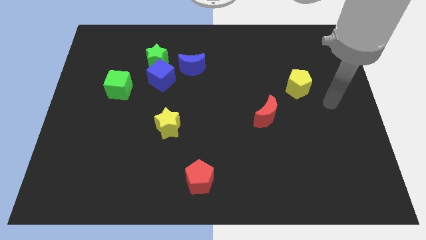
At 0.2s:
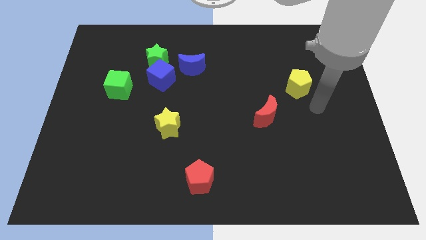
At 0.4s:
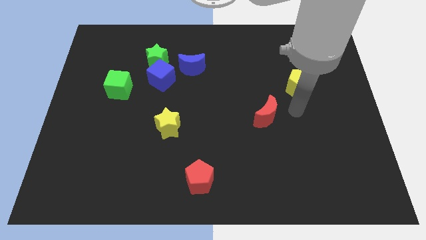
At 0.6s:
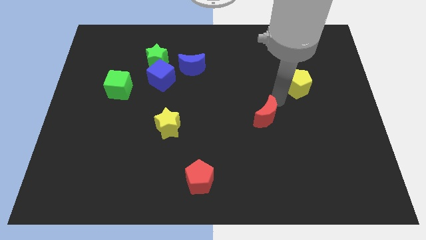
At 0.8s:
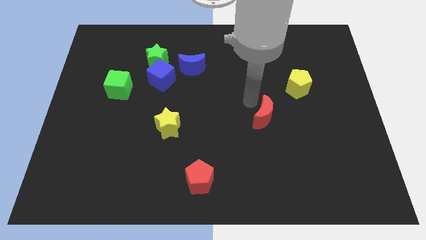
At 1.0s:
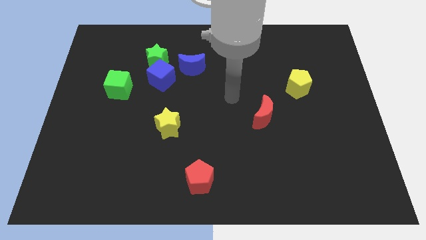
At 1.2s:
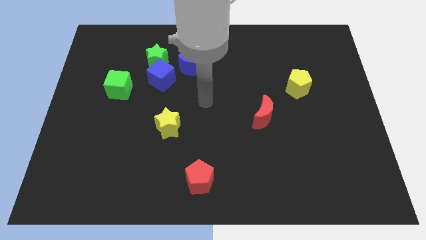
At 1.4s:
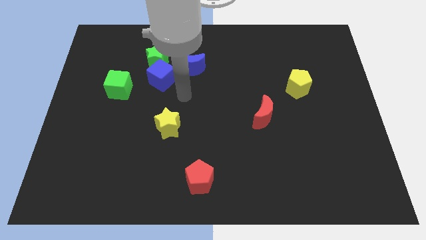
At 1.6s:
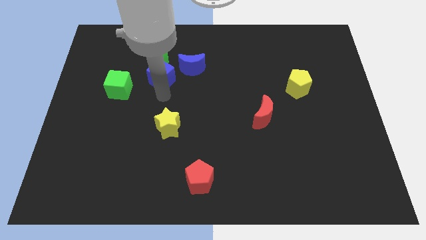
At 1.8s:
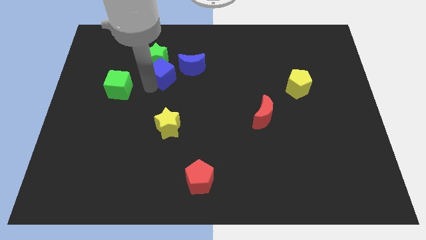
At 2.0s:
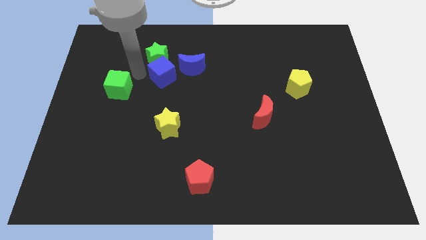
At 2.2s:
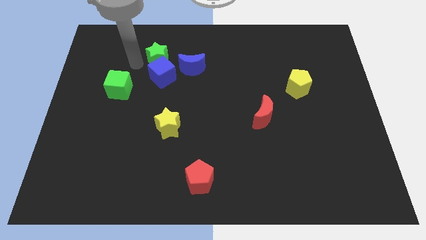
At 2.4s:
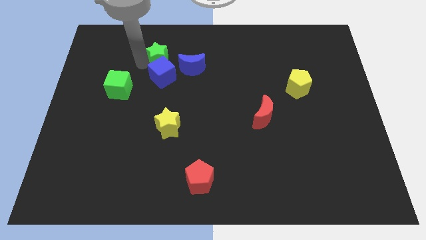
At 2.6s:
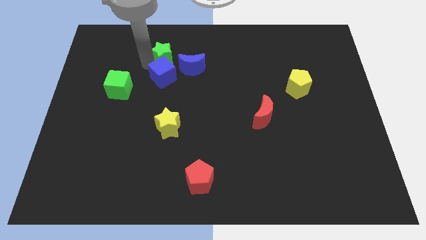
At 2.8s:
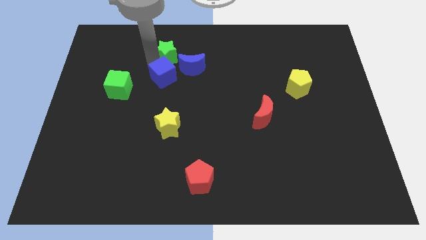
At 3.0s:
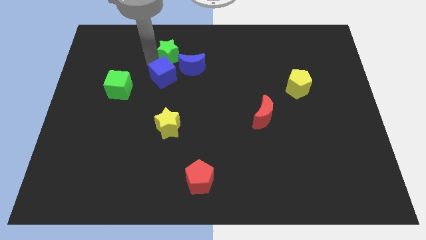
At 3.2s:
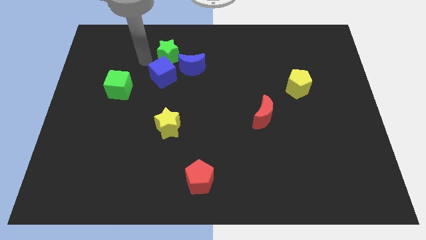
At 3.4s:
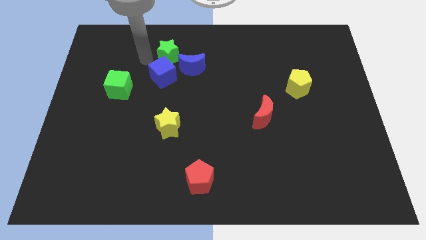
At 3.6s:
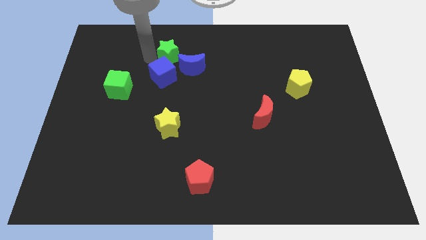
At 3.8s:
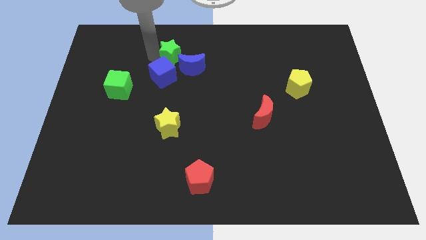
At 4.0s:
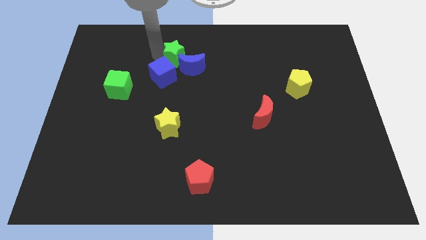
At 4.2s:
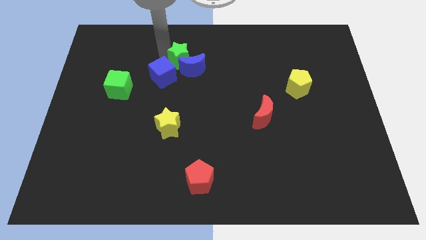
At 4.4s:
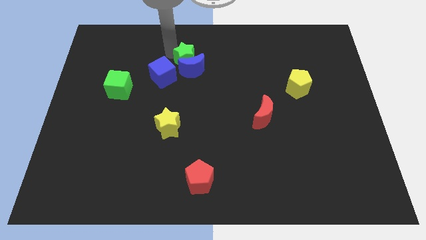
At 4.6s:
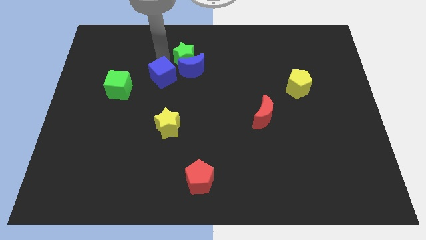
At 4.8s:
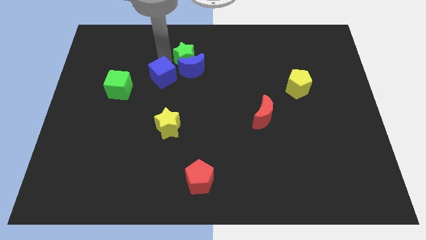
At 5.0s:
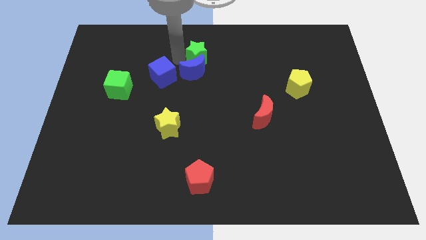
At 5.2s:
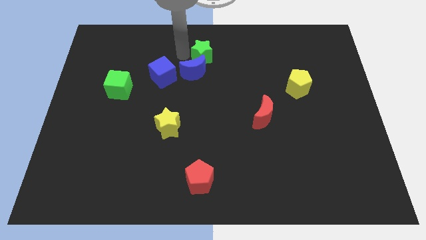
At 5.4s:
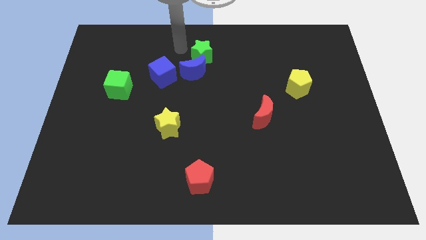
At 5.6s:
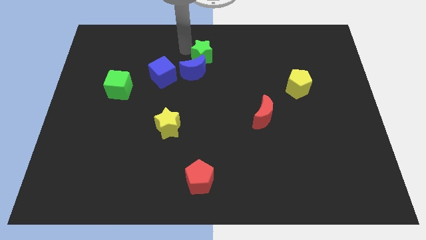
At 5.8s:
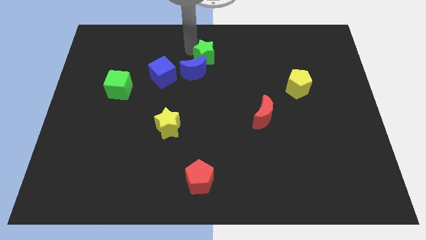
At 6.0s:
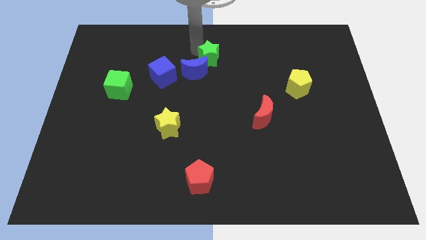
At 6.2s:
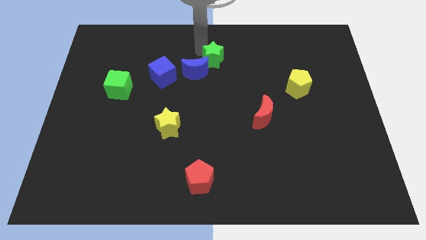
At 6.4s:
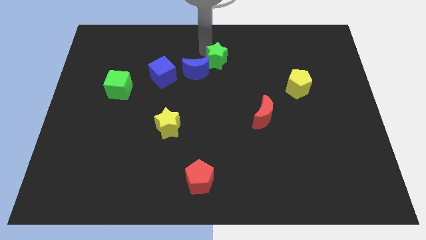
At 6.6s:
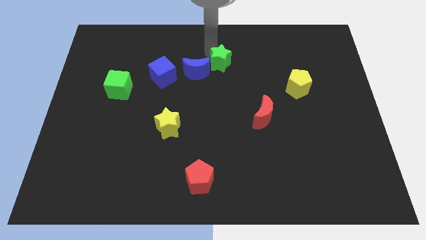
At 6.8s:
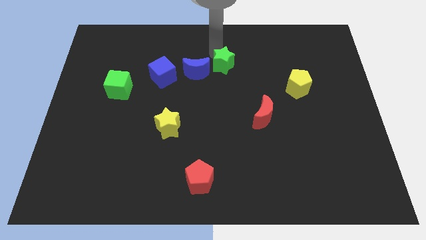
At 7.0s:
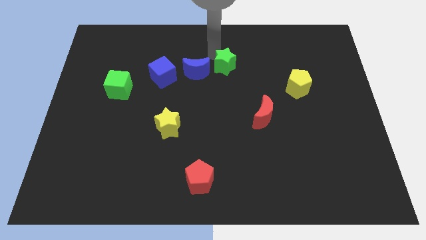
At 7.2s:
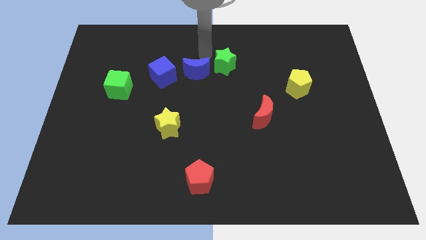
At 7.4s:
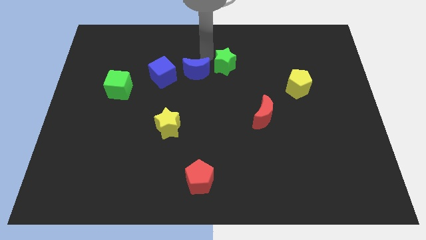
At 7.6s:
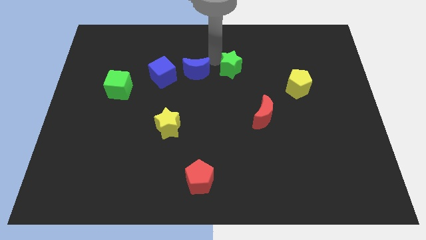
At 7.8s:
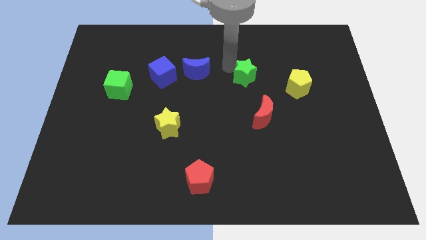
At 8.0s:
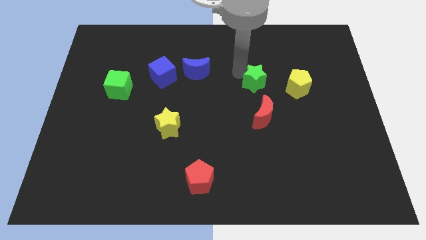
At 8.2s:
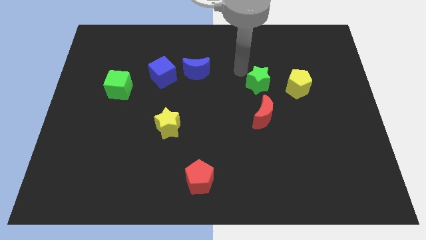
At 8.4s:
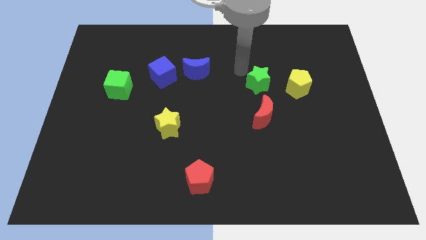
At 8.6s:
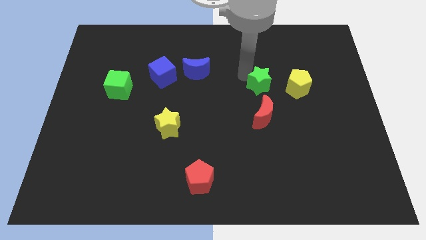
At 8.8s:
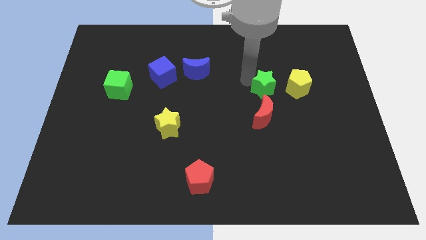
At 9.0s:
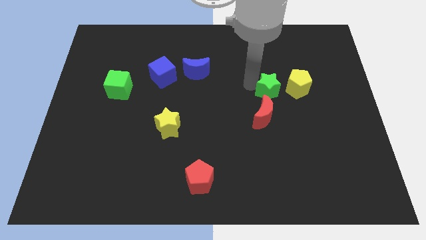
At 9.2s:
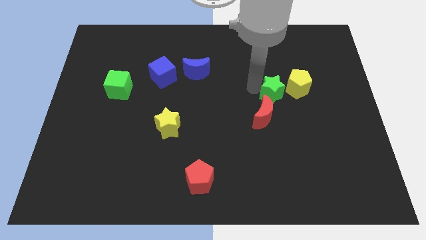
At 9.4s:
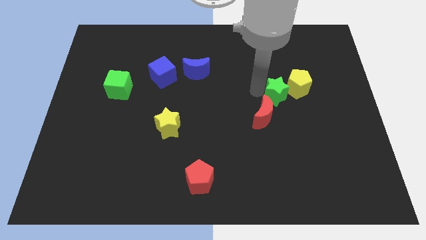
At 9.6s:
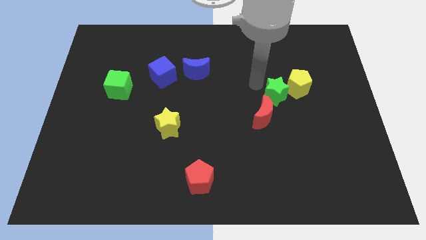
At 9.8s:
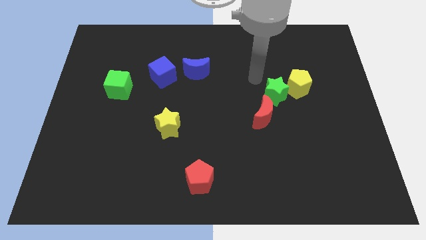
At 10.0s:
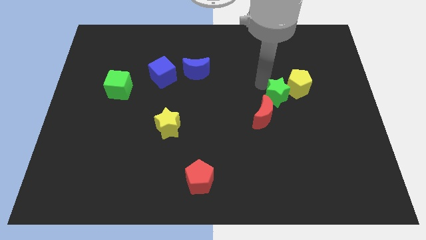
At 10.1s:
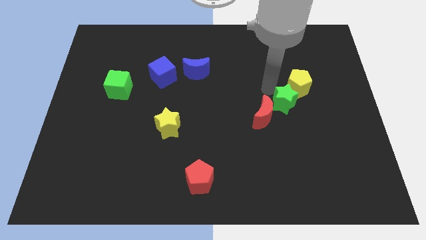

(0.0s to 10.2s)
move the green star to the bottom of the yellow pentagon

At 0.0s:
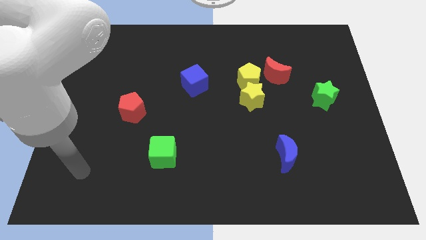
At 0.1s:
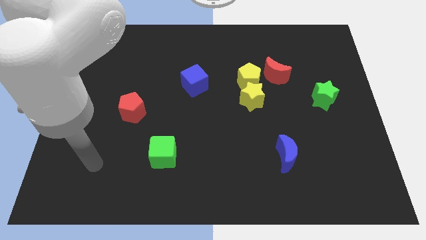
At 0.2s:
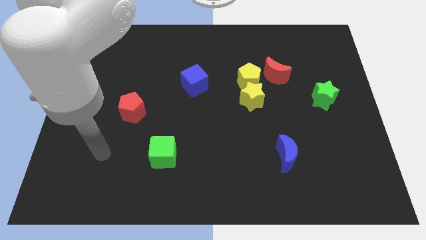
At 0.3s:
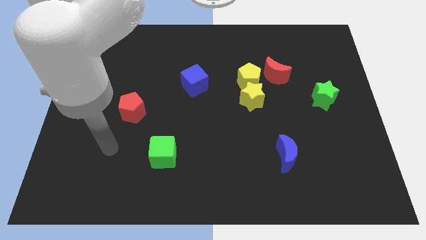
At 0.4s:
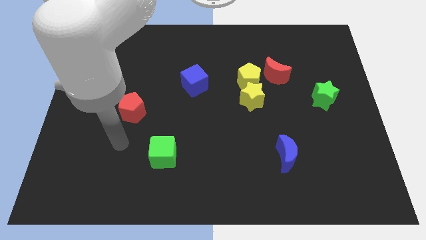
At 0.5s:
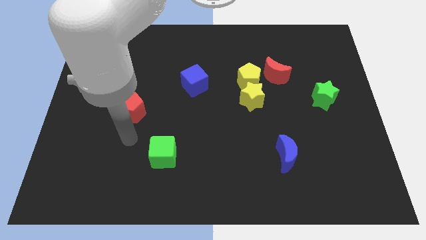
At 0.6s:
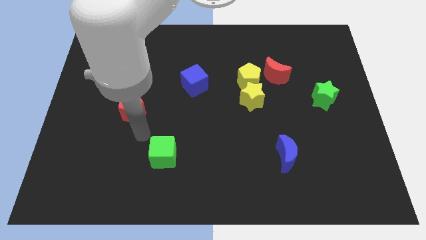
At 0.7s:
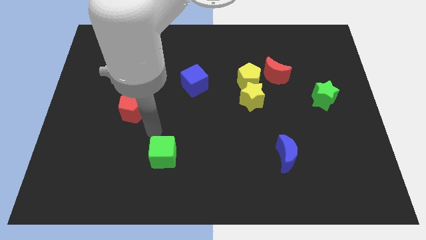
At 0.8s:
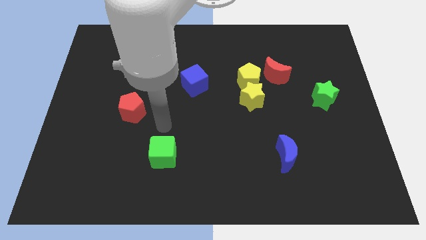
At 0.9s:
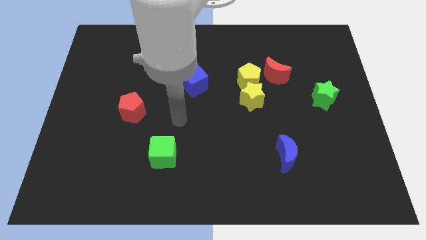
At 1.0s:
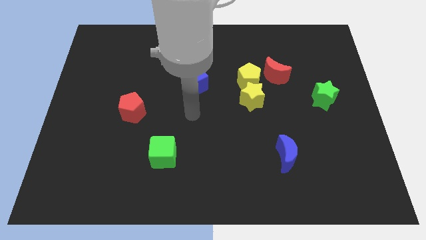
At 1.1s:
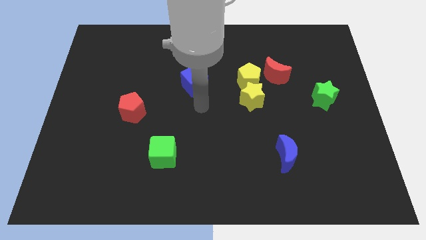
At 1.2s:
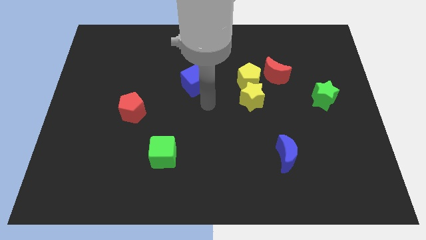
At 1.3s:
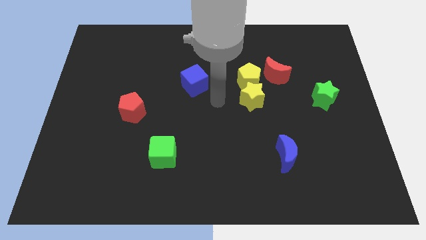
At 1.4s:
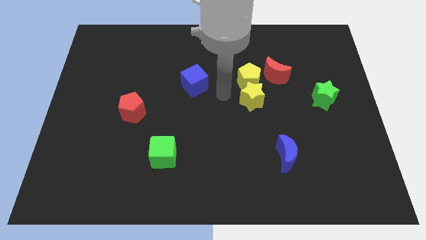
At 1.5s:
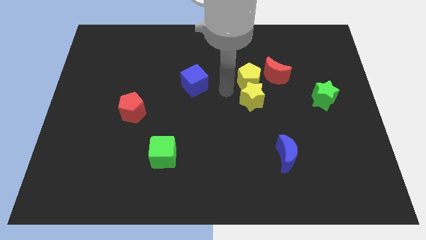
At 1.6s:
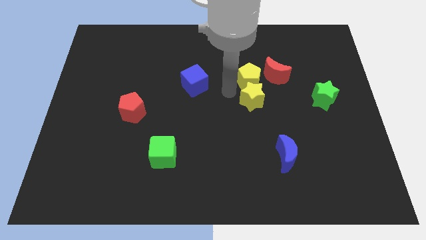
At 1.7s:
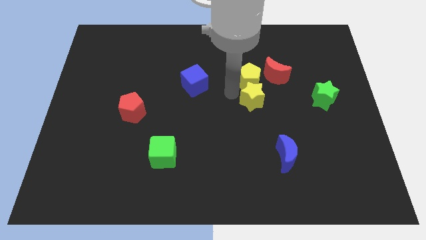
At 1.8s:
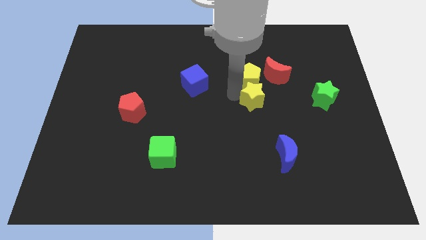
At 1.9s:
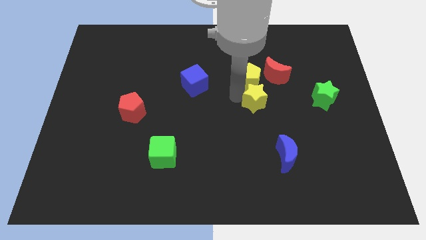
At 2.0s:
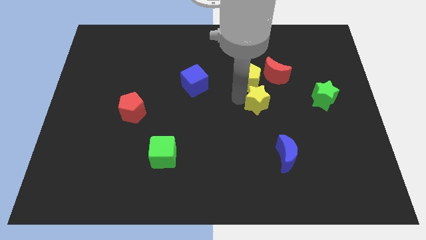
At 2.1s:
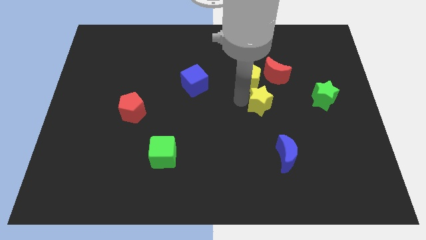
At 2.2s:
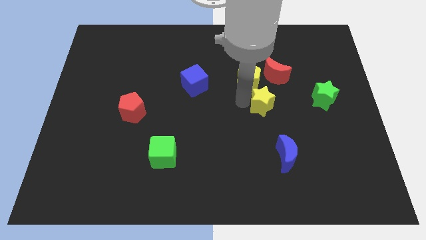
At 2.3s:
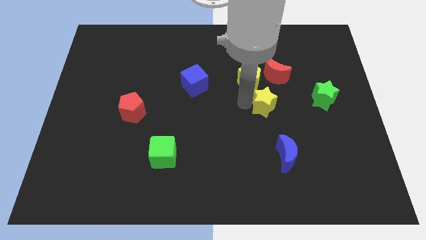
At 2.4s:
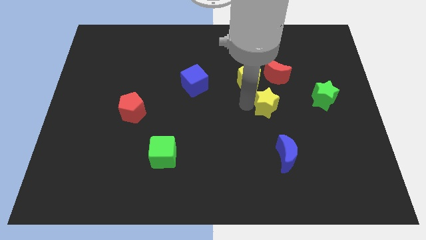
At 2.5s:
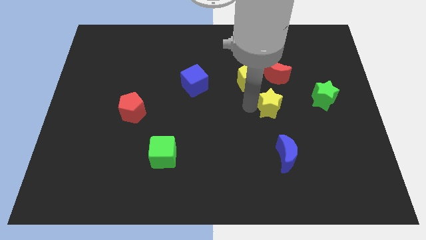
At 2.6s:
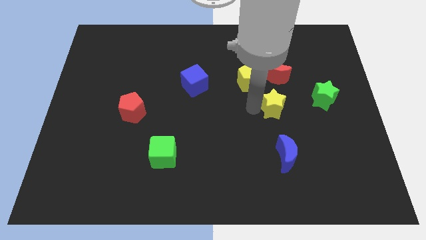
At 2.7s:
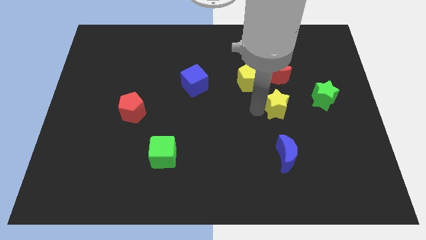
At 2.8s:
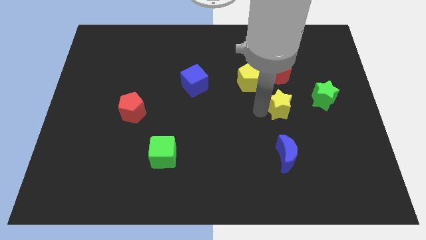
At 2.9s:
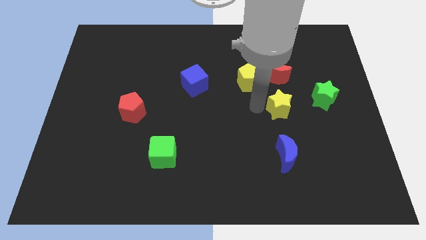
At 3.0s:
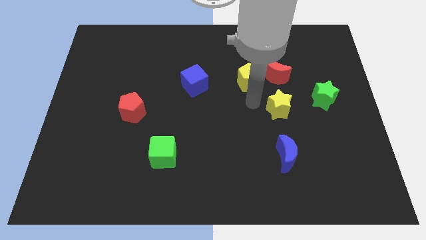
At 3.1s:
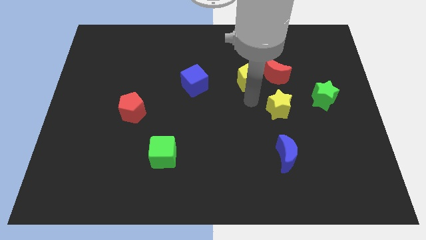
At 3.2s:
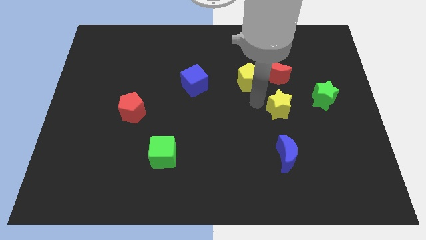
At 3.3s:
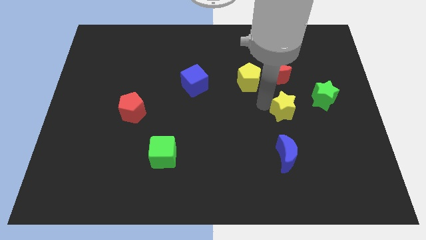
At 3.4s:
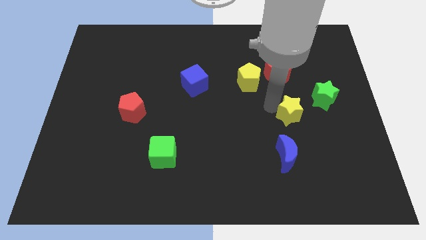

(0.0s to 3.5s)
slide the yellow star diagonally down and to the left of the green star
